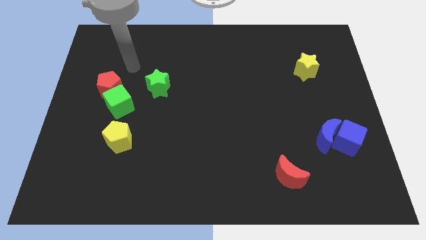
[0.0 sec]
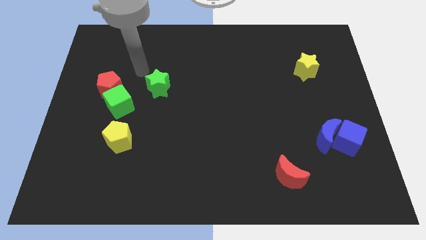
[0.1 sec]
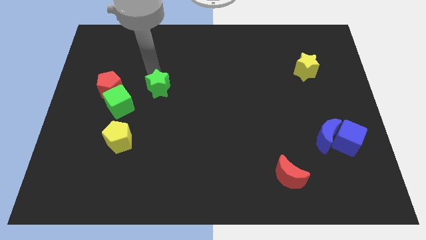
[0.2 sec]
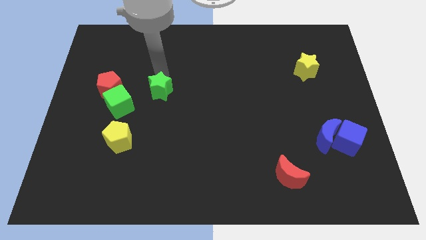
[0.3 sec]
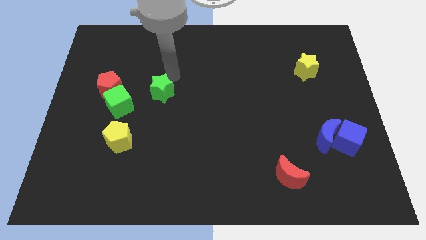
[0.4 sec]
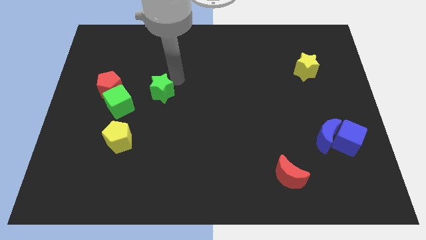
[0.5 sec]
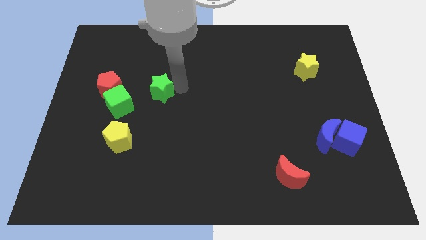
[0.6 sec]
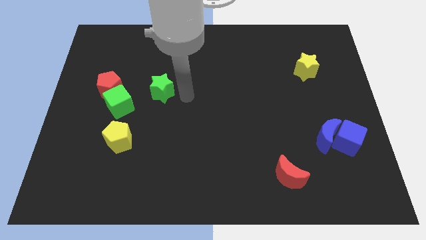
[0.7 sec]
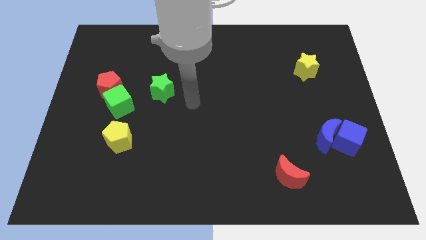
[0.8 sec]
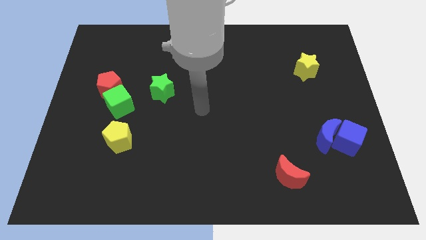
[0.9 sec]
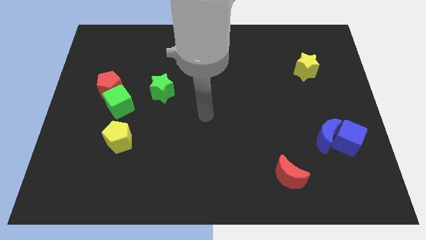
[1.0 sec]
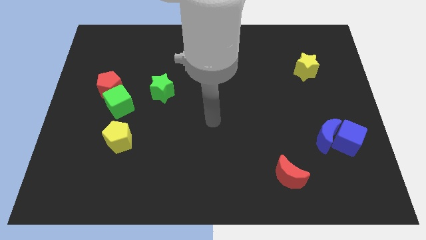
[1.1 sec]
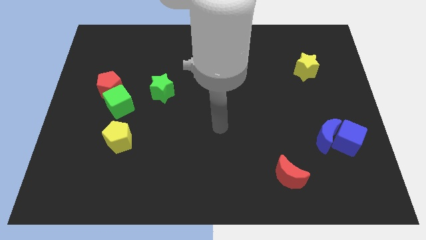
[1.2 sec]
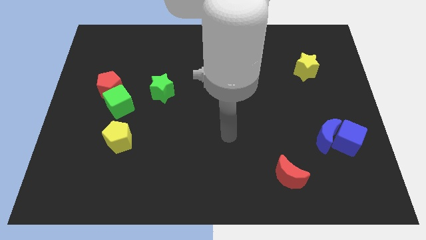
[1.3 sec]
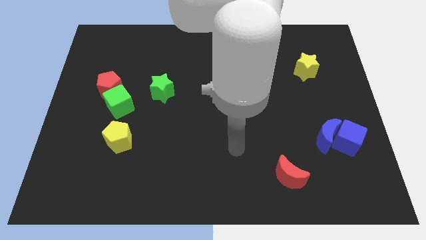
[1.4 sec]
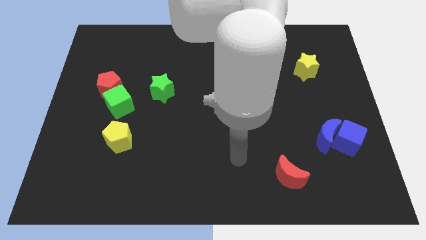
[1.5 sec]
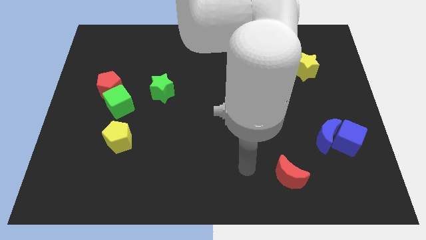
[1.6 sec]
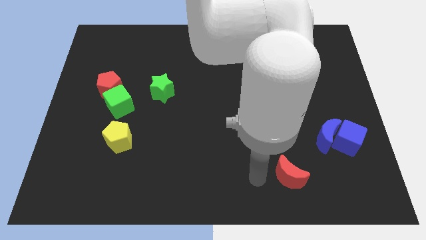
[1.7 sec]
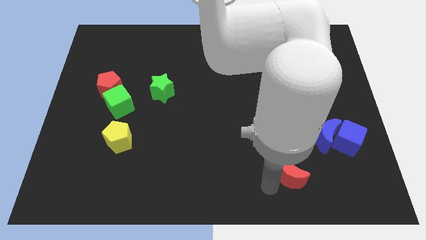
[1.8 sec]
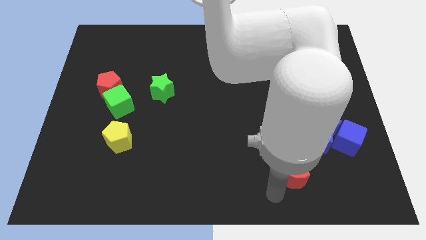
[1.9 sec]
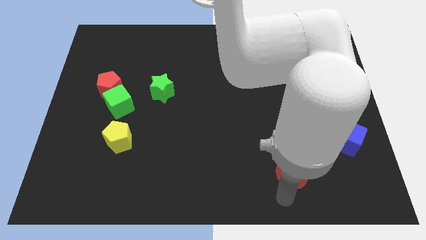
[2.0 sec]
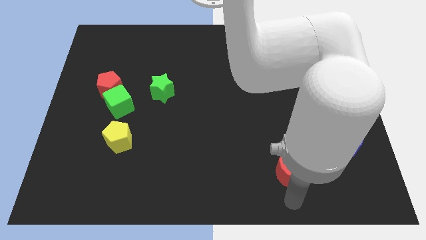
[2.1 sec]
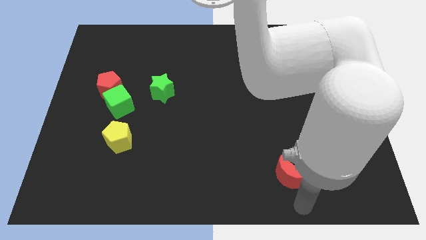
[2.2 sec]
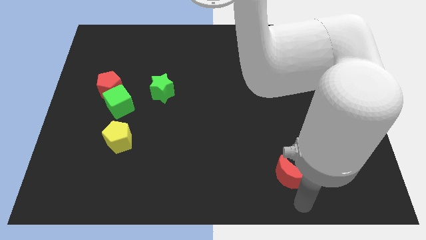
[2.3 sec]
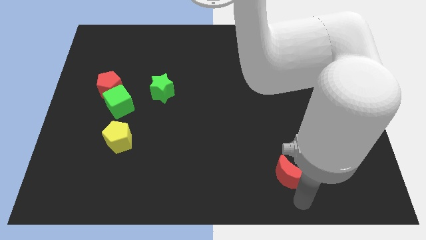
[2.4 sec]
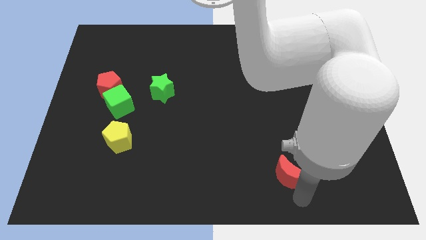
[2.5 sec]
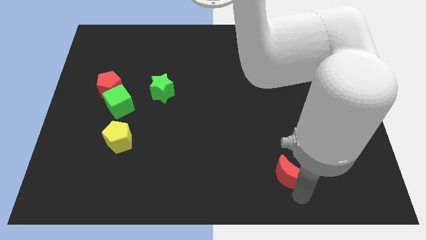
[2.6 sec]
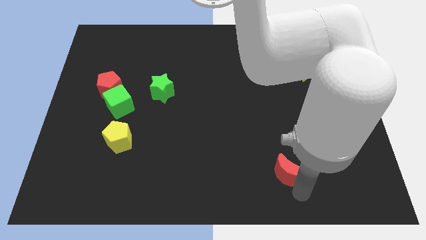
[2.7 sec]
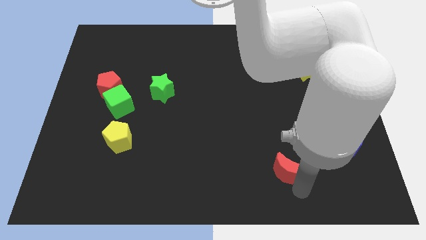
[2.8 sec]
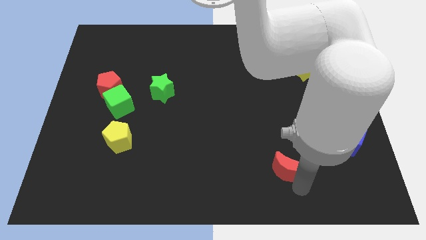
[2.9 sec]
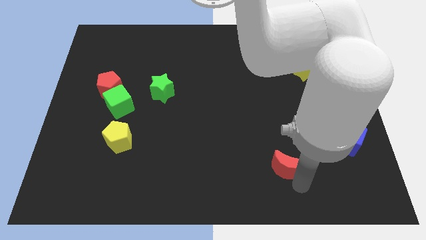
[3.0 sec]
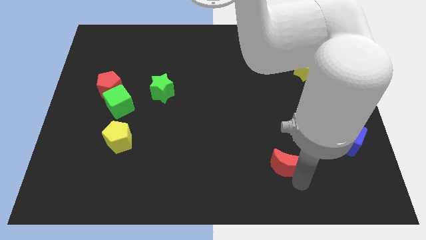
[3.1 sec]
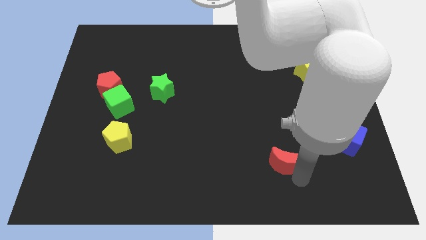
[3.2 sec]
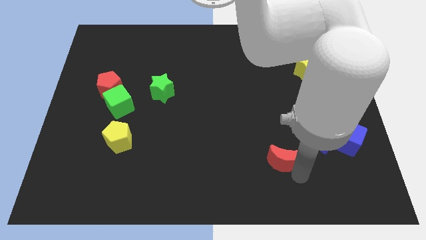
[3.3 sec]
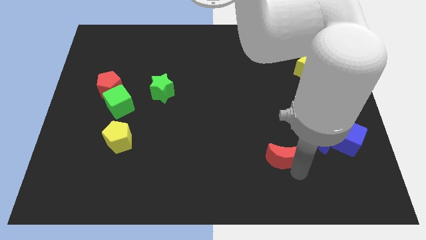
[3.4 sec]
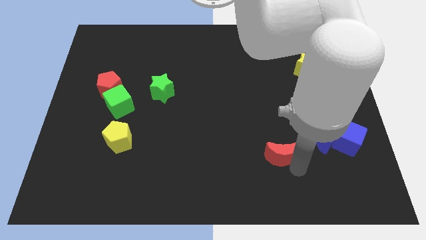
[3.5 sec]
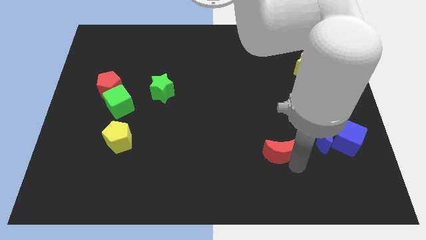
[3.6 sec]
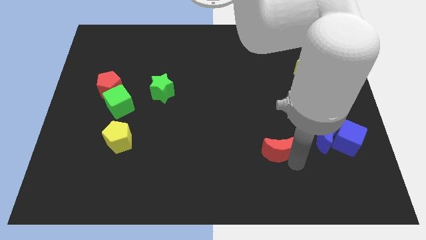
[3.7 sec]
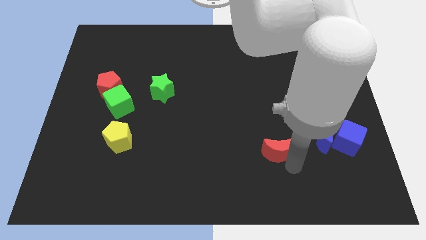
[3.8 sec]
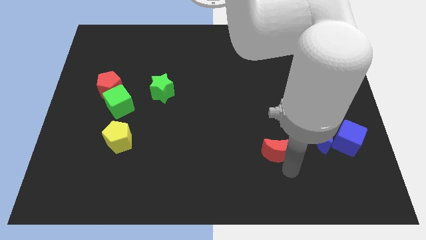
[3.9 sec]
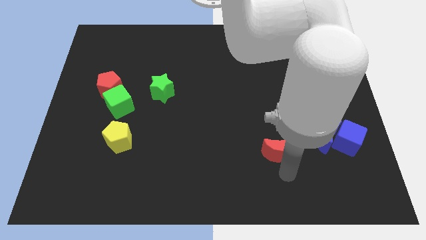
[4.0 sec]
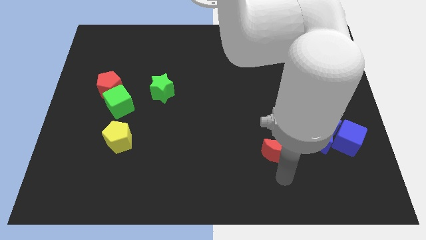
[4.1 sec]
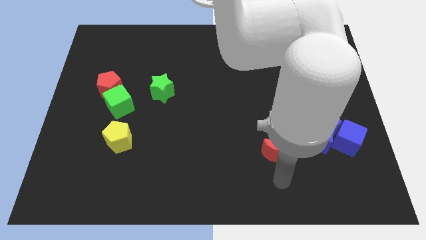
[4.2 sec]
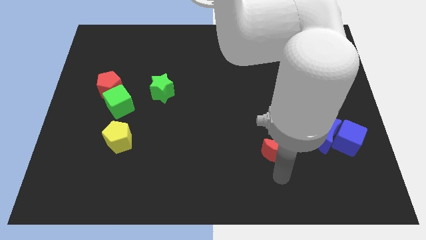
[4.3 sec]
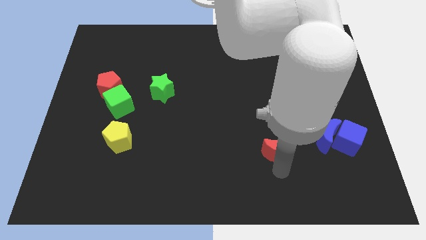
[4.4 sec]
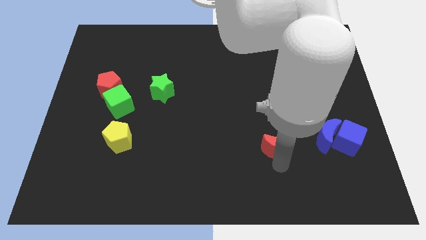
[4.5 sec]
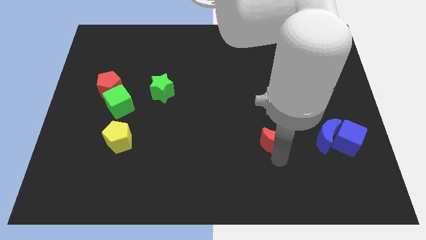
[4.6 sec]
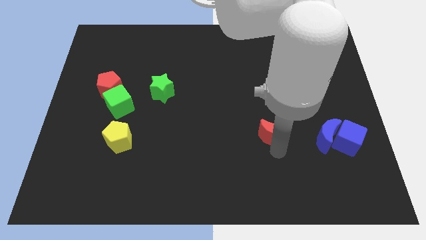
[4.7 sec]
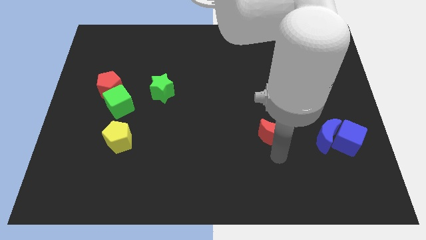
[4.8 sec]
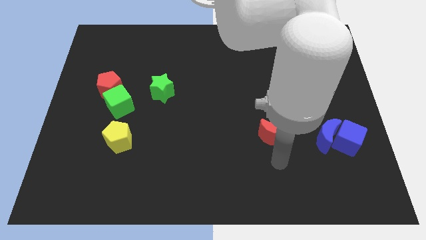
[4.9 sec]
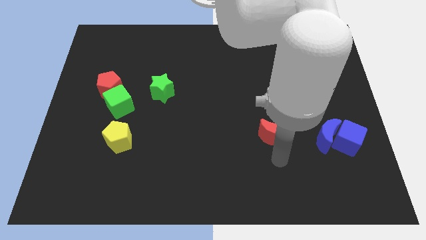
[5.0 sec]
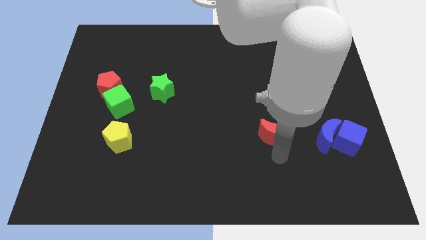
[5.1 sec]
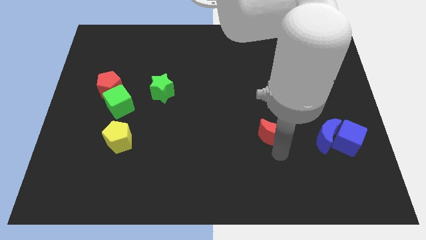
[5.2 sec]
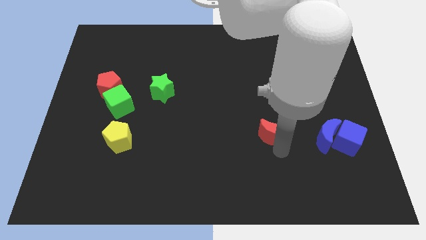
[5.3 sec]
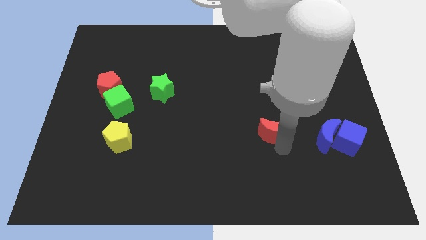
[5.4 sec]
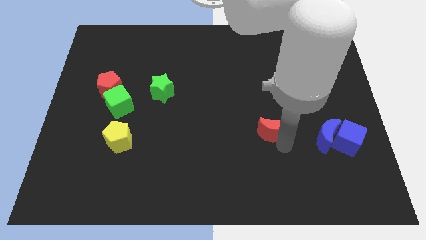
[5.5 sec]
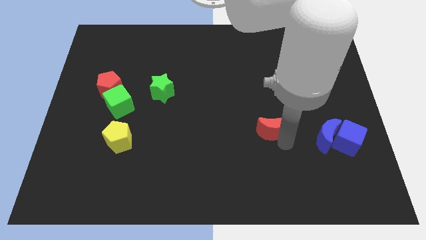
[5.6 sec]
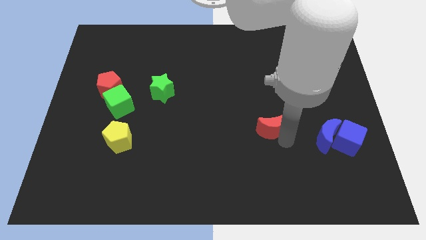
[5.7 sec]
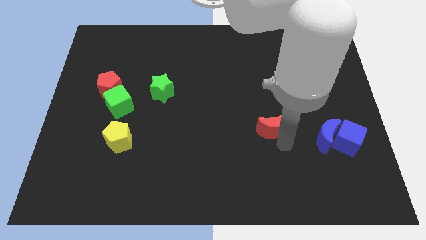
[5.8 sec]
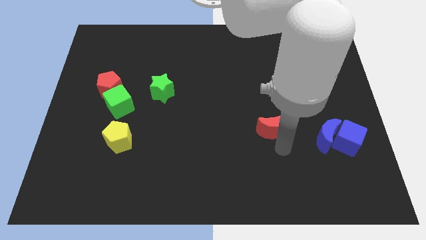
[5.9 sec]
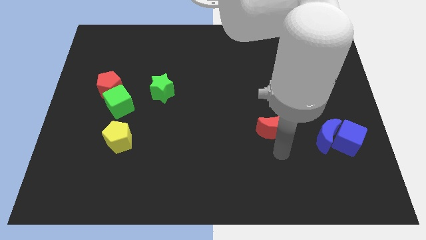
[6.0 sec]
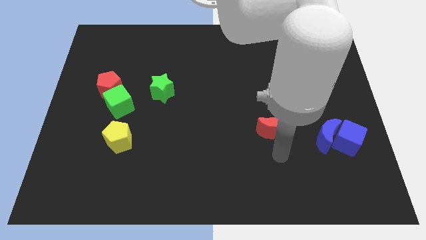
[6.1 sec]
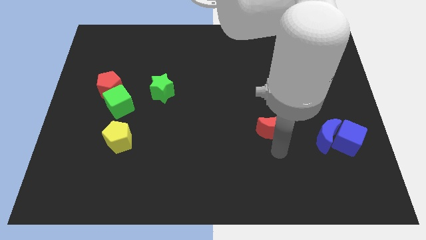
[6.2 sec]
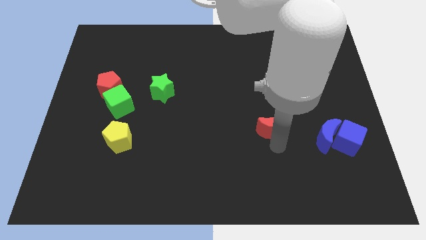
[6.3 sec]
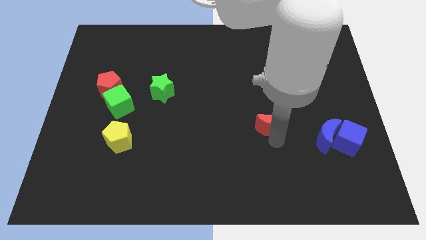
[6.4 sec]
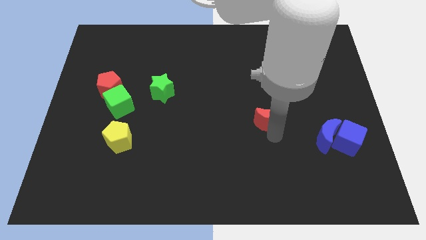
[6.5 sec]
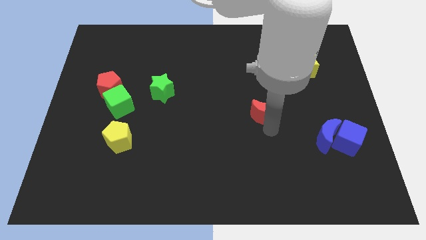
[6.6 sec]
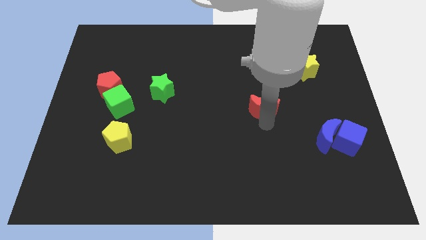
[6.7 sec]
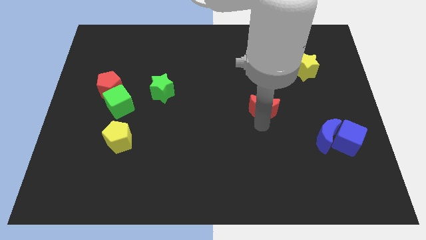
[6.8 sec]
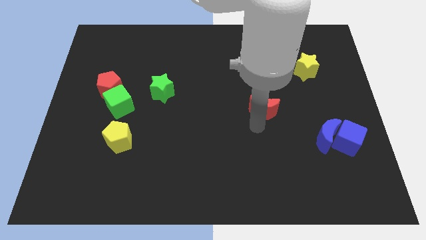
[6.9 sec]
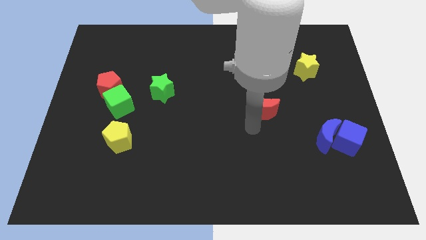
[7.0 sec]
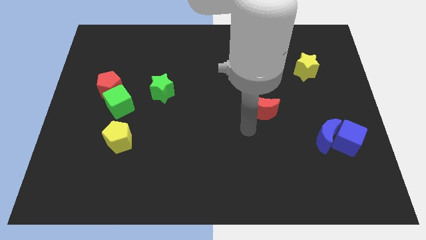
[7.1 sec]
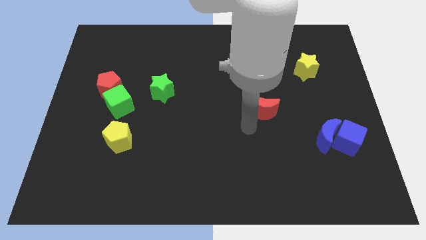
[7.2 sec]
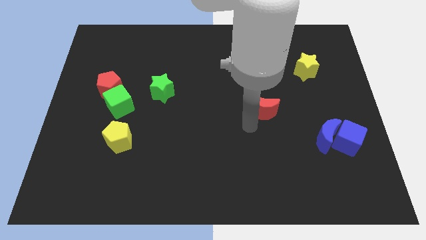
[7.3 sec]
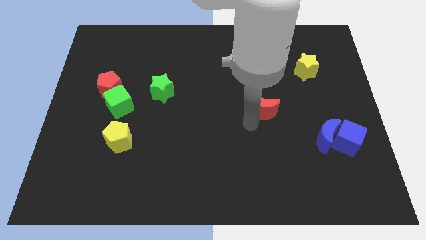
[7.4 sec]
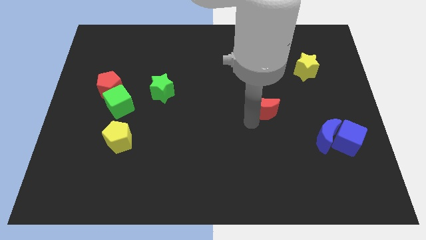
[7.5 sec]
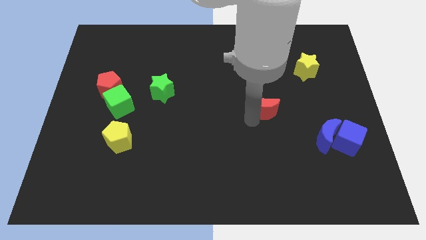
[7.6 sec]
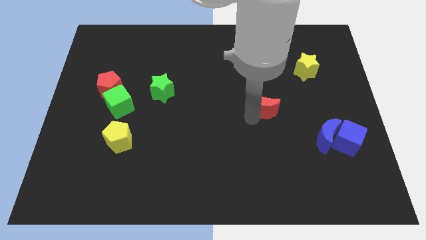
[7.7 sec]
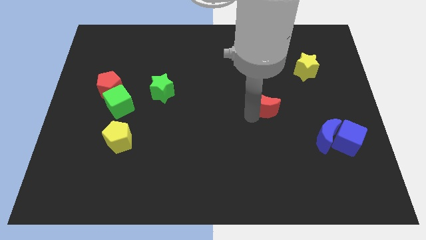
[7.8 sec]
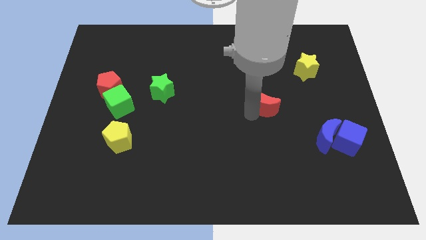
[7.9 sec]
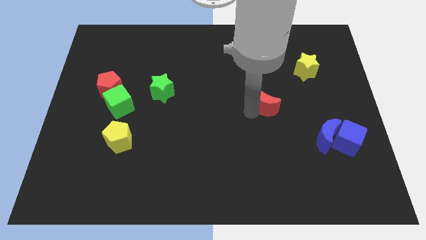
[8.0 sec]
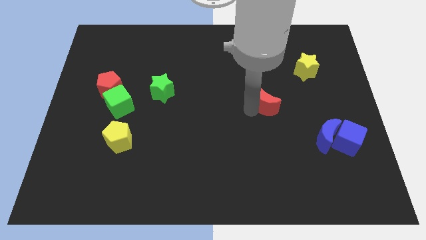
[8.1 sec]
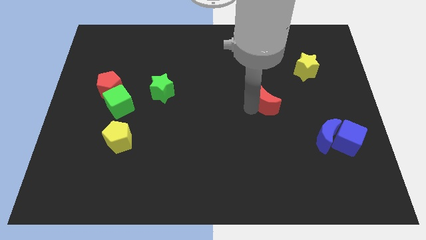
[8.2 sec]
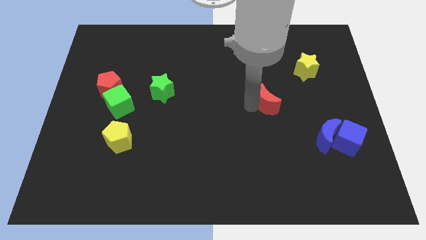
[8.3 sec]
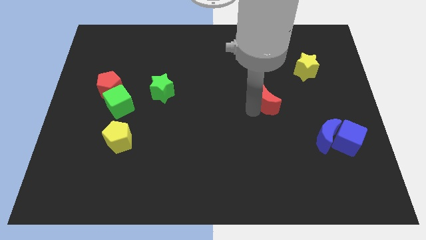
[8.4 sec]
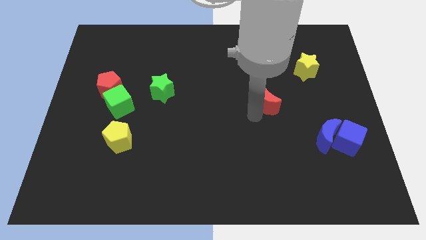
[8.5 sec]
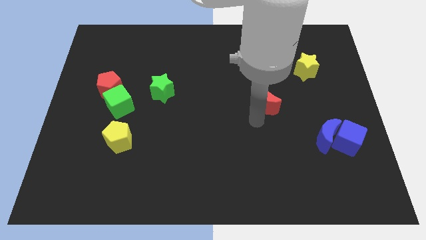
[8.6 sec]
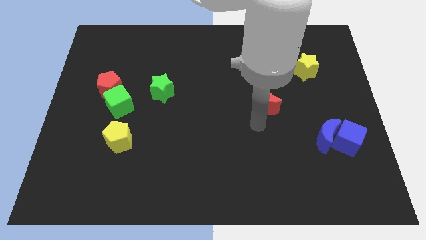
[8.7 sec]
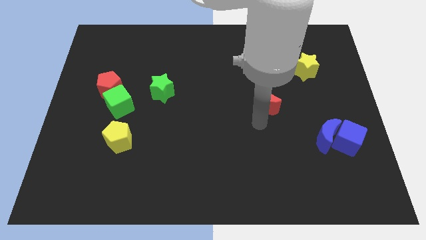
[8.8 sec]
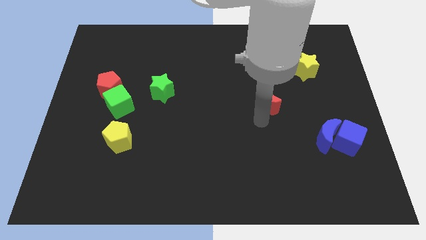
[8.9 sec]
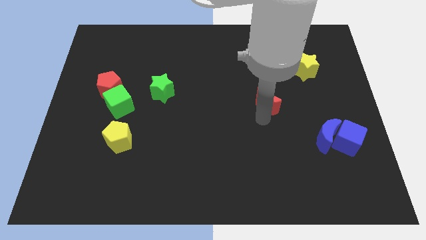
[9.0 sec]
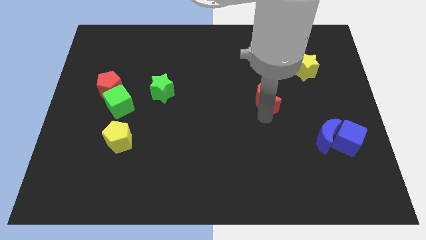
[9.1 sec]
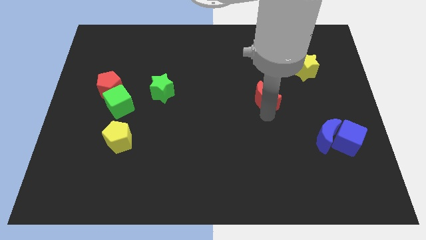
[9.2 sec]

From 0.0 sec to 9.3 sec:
push the red moon up
